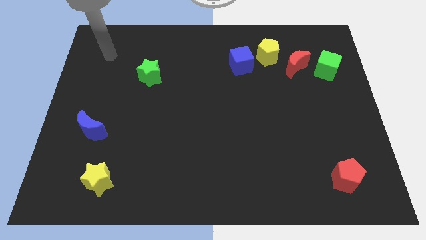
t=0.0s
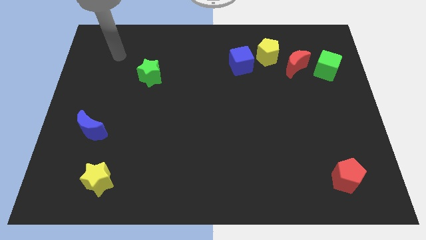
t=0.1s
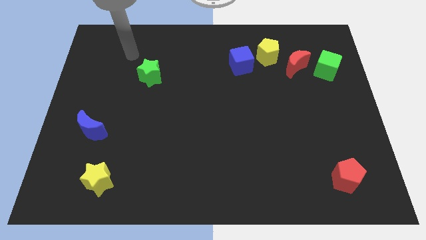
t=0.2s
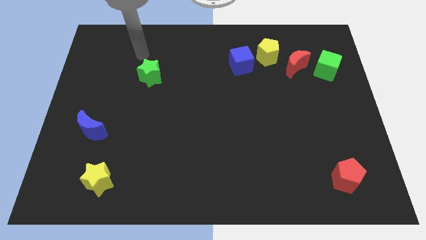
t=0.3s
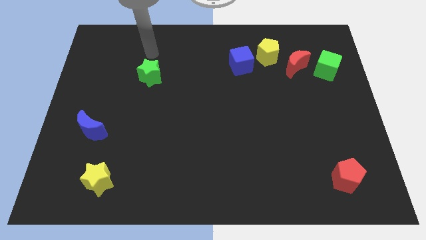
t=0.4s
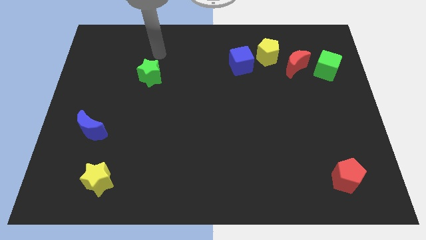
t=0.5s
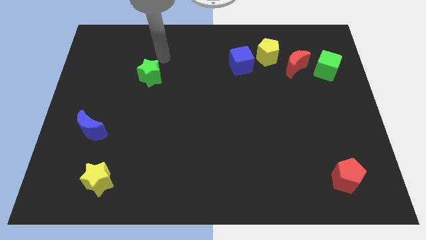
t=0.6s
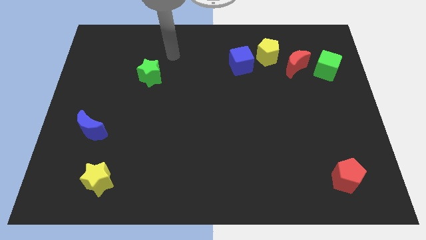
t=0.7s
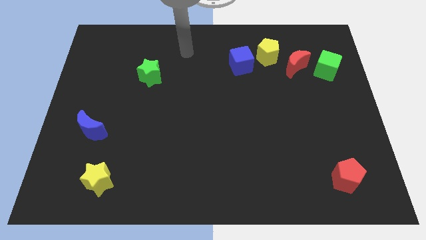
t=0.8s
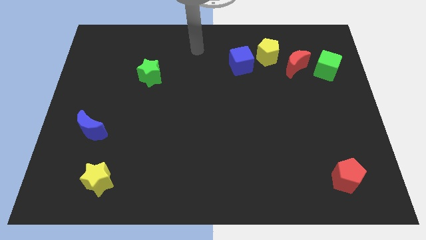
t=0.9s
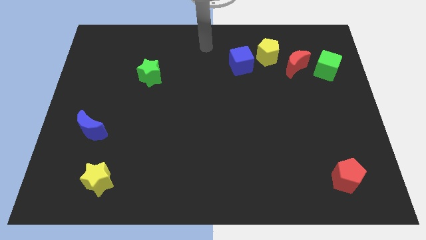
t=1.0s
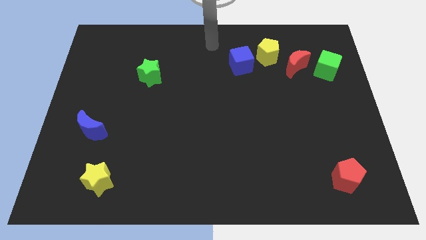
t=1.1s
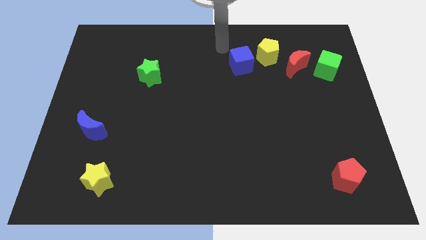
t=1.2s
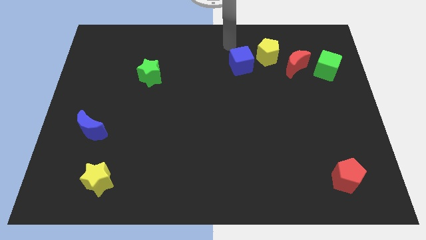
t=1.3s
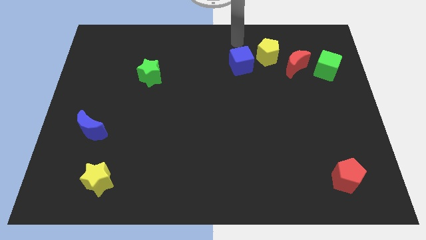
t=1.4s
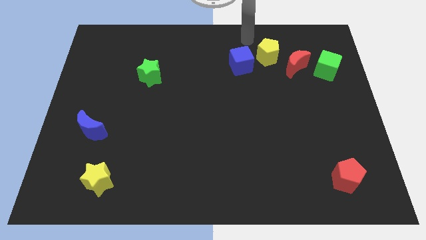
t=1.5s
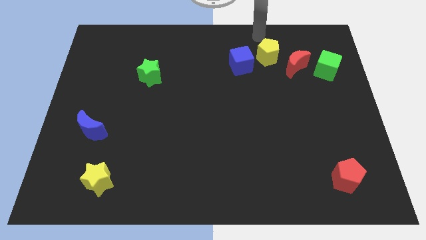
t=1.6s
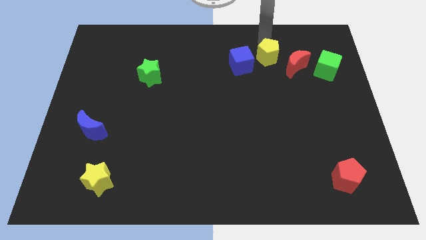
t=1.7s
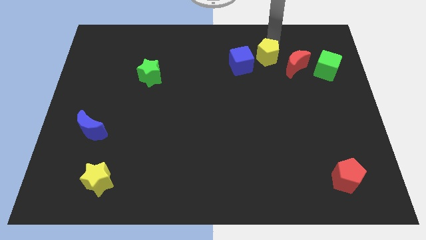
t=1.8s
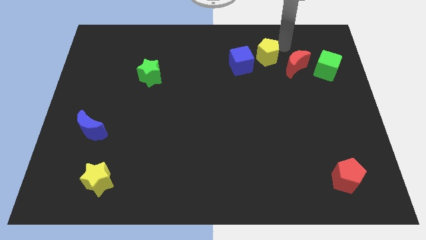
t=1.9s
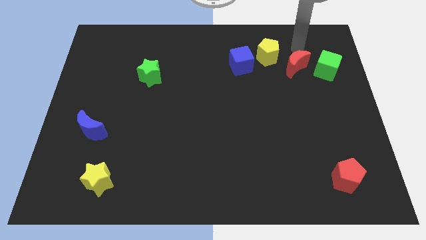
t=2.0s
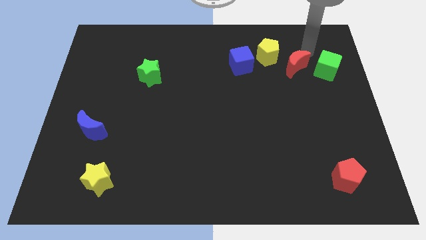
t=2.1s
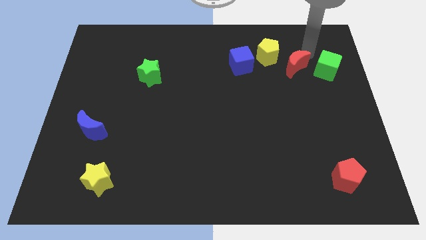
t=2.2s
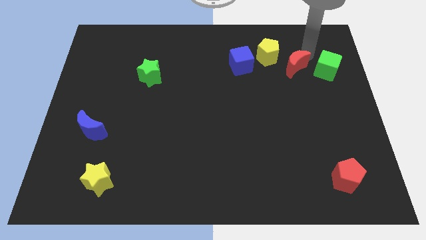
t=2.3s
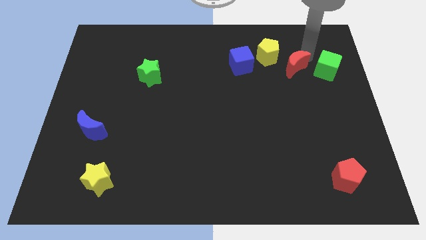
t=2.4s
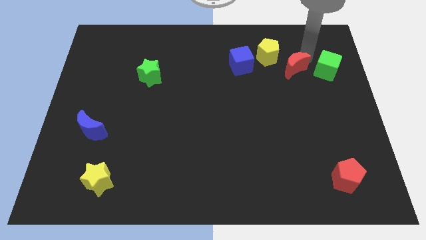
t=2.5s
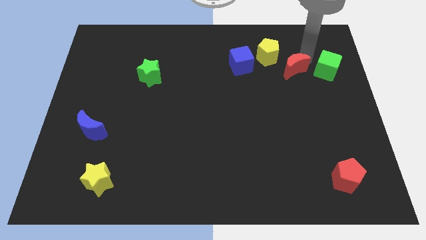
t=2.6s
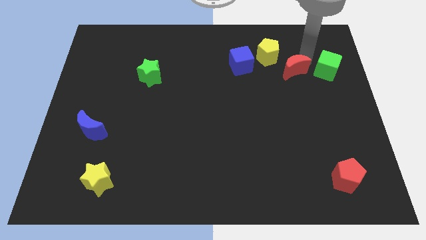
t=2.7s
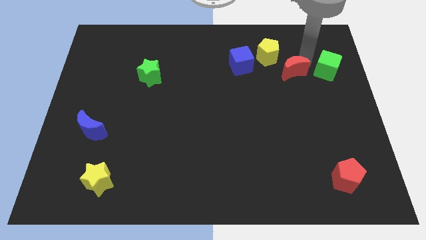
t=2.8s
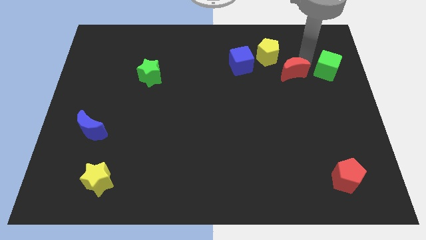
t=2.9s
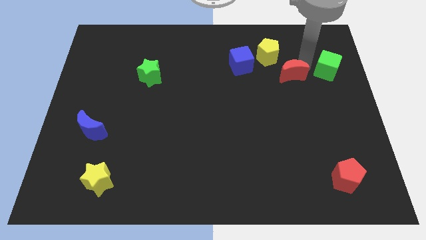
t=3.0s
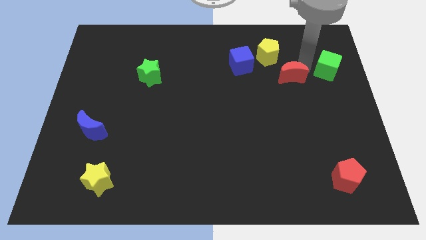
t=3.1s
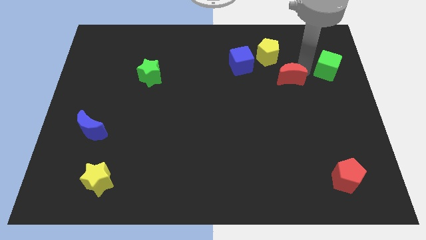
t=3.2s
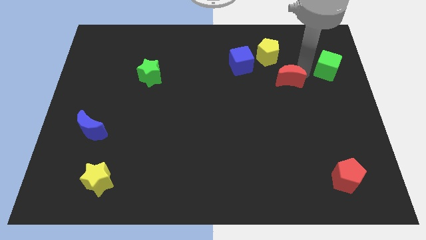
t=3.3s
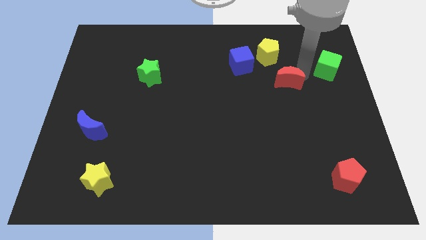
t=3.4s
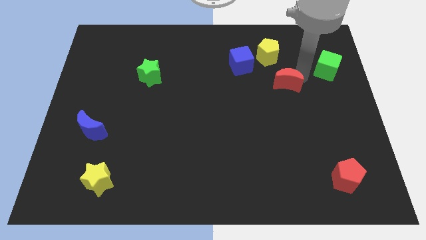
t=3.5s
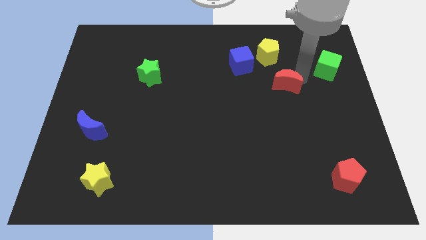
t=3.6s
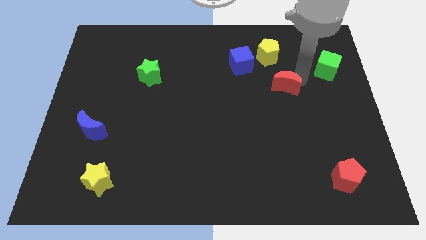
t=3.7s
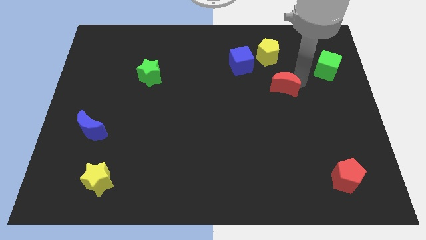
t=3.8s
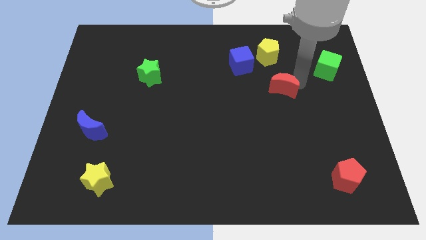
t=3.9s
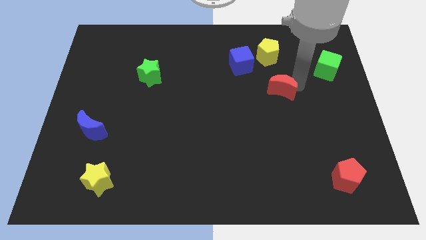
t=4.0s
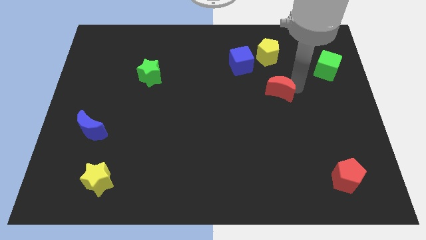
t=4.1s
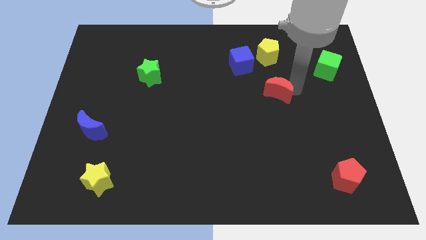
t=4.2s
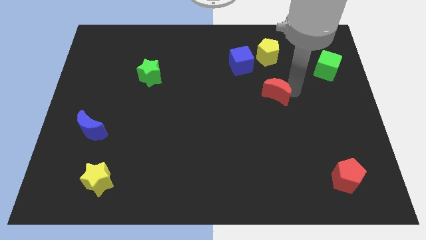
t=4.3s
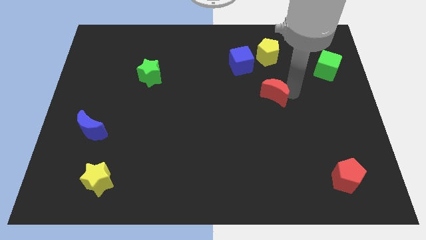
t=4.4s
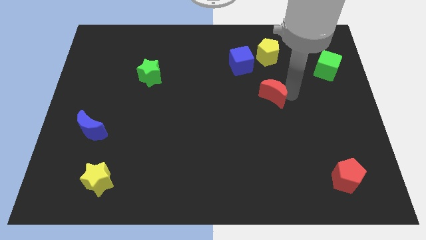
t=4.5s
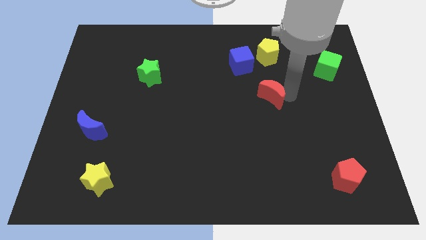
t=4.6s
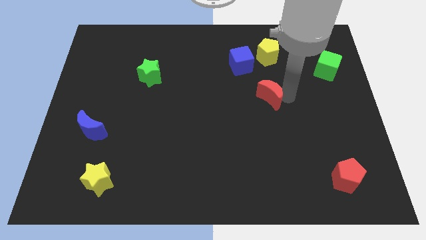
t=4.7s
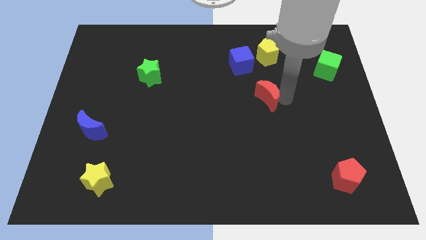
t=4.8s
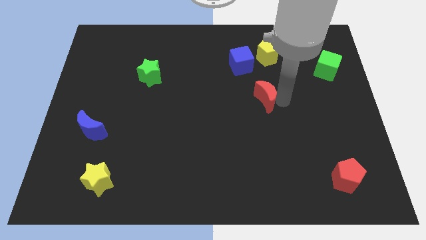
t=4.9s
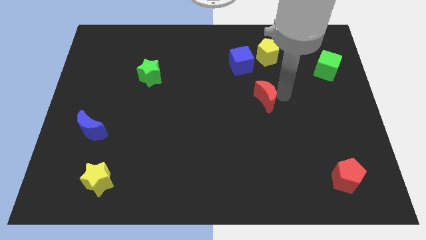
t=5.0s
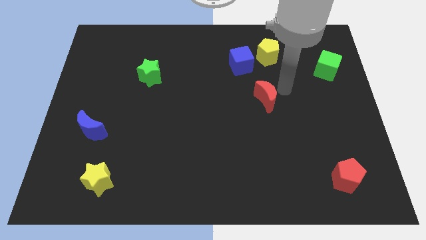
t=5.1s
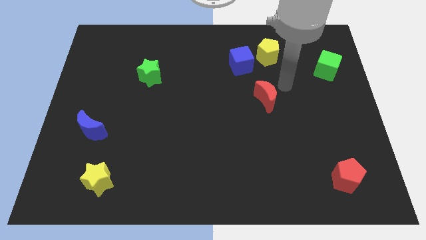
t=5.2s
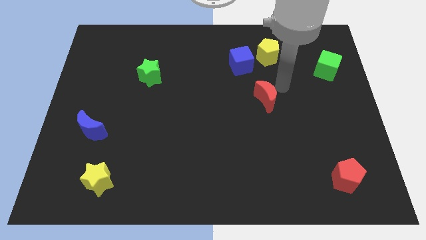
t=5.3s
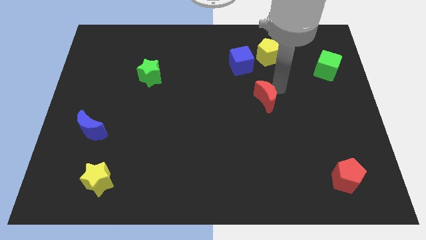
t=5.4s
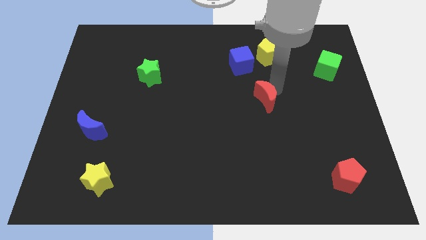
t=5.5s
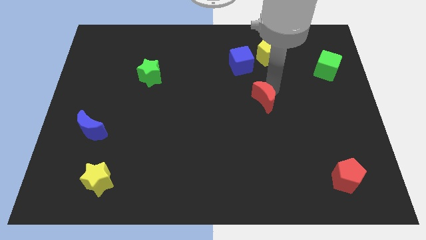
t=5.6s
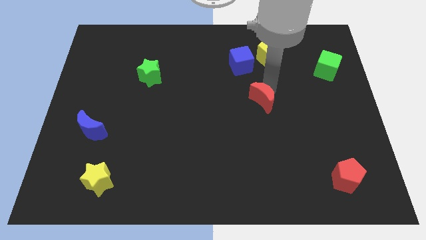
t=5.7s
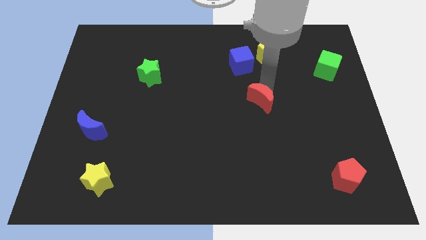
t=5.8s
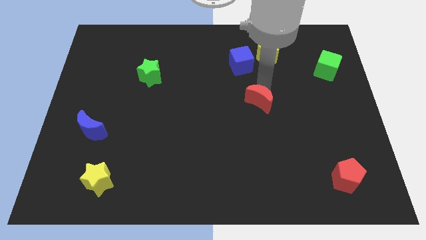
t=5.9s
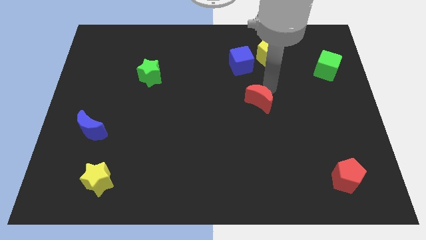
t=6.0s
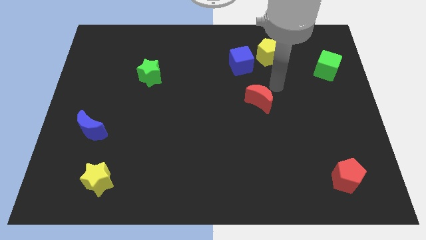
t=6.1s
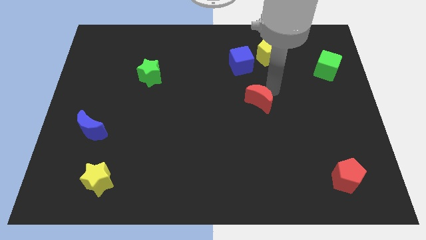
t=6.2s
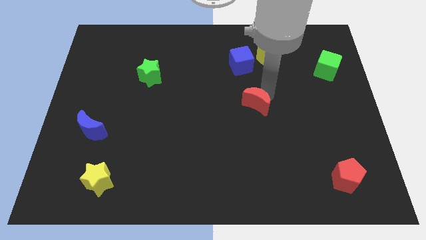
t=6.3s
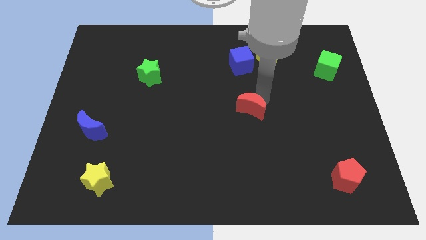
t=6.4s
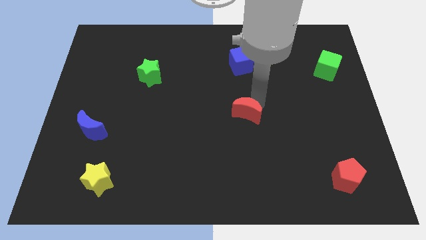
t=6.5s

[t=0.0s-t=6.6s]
move the red moon downwards and then left

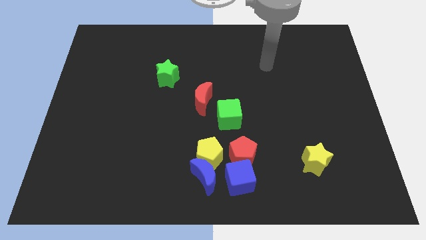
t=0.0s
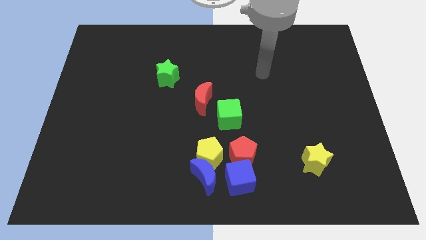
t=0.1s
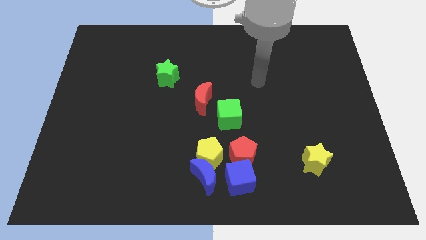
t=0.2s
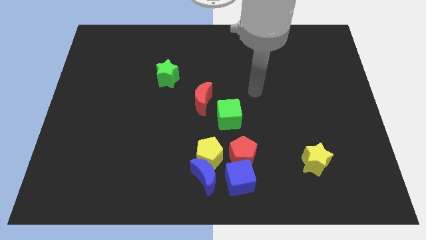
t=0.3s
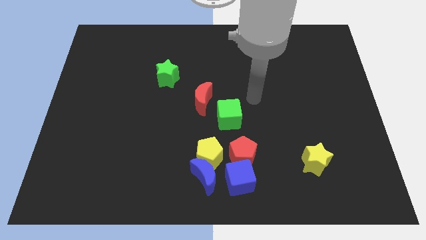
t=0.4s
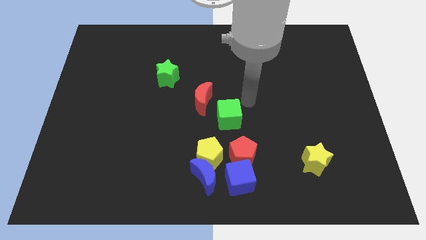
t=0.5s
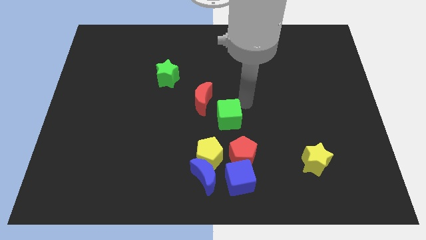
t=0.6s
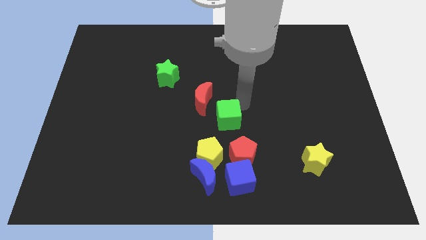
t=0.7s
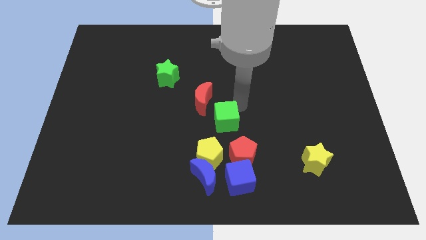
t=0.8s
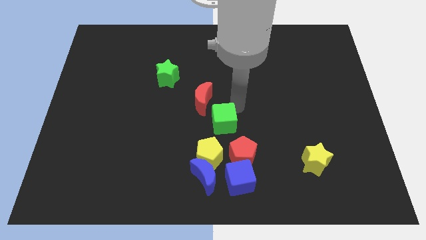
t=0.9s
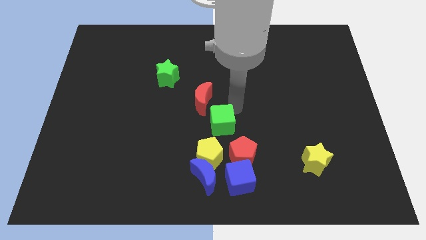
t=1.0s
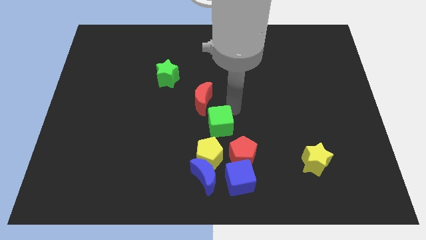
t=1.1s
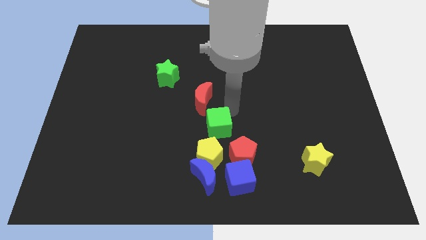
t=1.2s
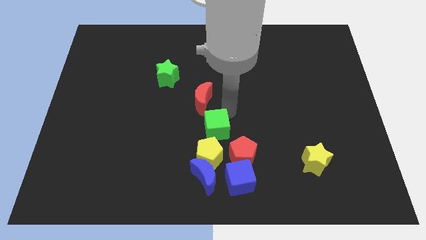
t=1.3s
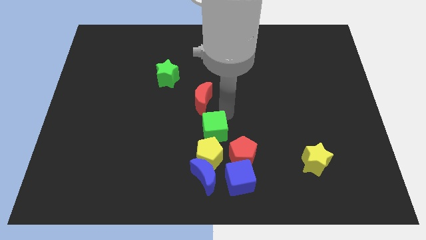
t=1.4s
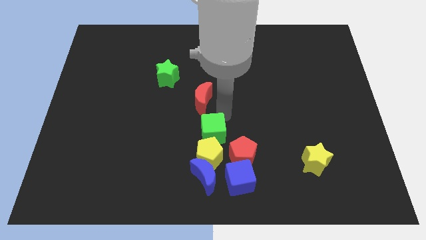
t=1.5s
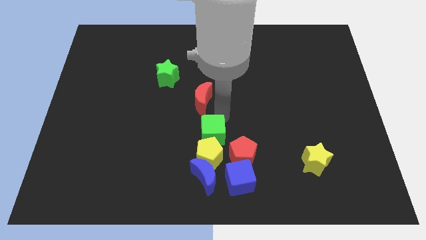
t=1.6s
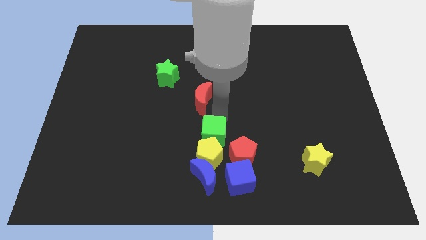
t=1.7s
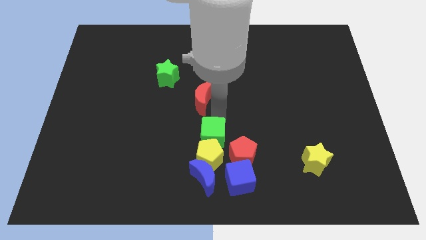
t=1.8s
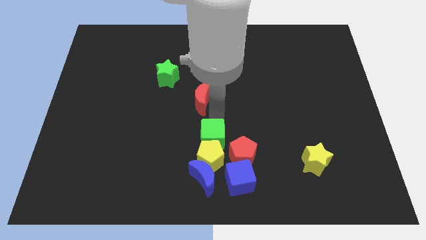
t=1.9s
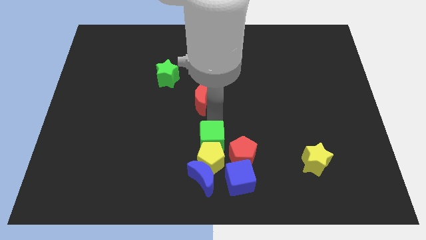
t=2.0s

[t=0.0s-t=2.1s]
move the green cube downwards and then left somewhat
